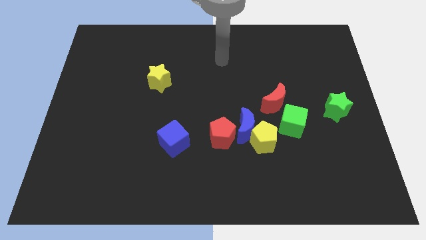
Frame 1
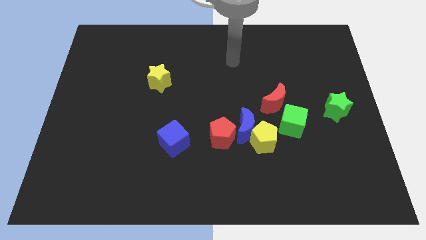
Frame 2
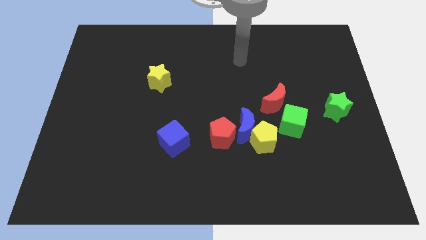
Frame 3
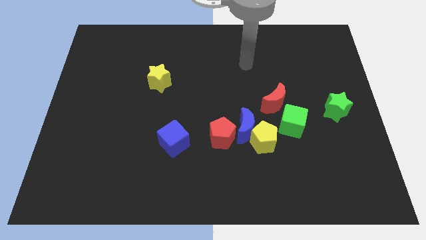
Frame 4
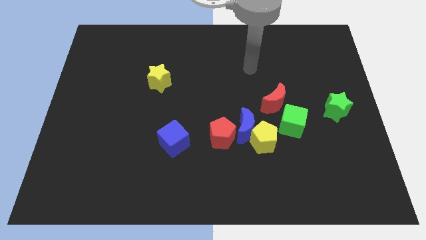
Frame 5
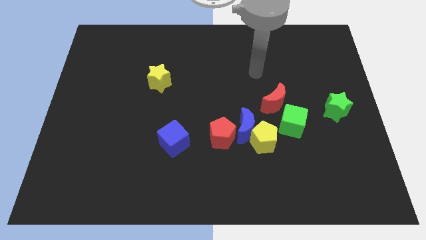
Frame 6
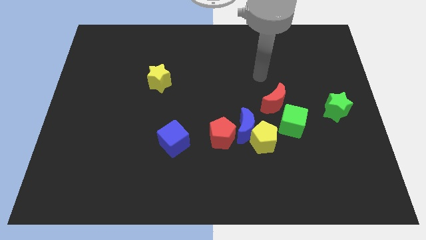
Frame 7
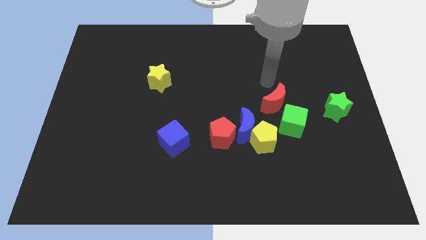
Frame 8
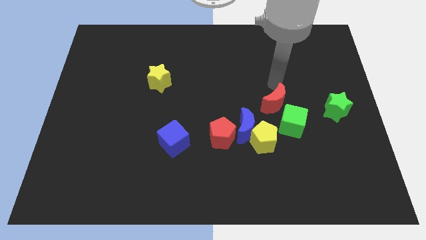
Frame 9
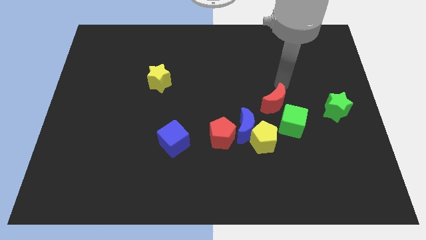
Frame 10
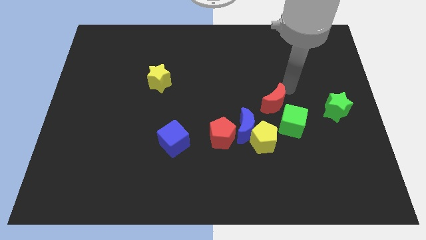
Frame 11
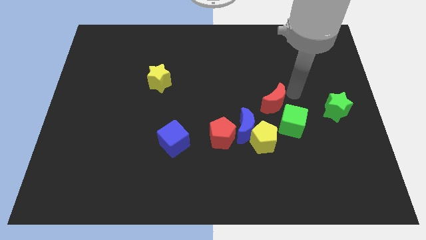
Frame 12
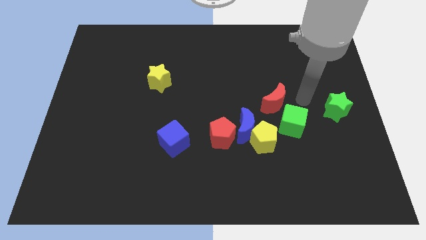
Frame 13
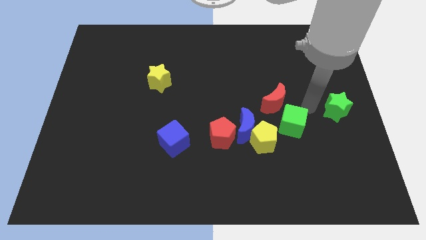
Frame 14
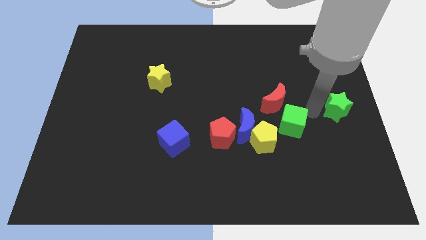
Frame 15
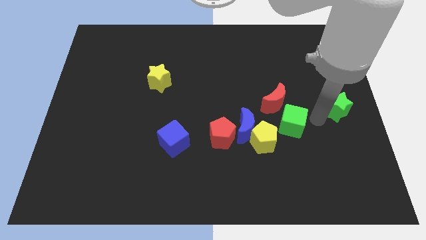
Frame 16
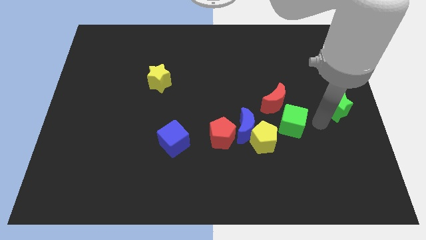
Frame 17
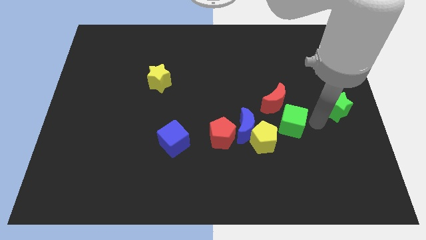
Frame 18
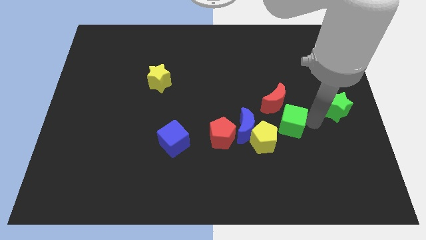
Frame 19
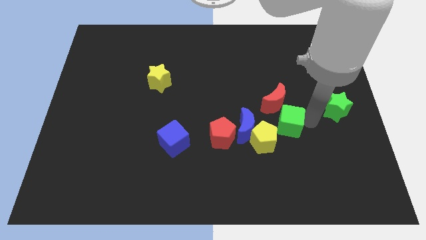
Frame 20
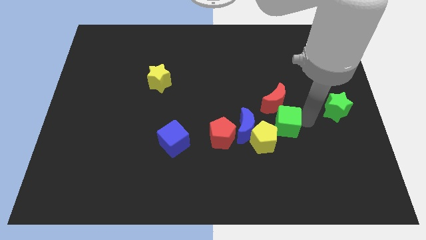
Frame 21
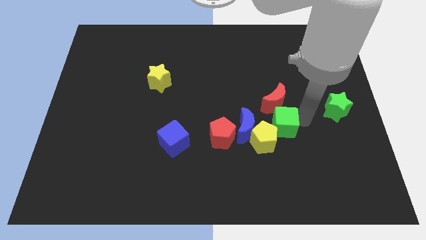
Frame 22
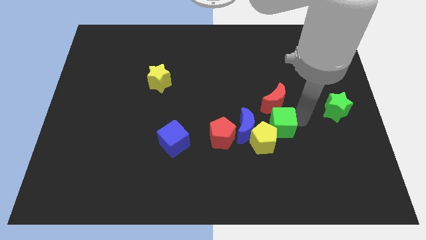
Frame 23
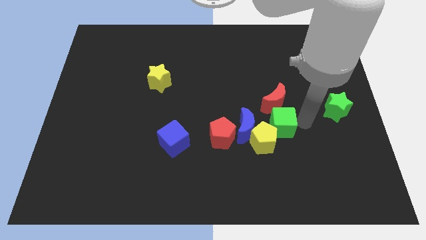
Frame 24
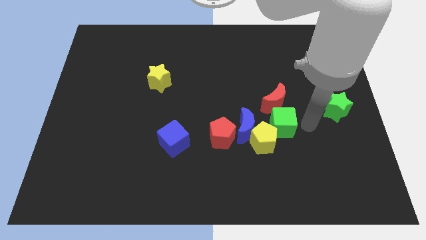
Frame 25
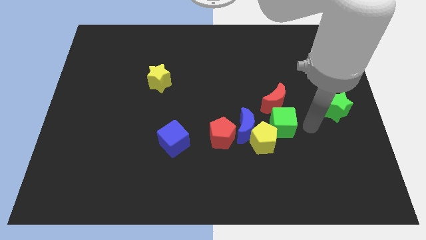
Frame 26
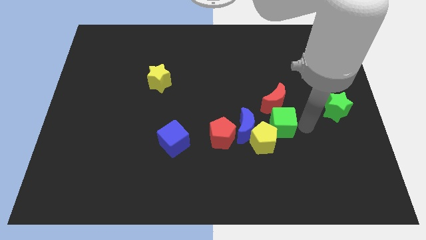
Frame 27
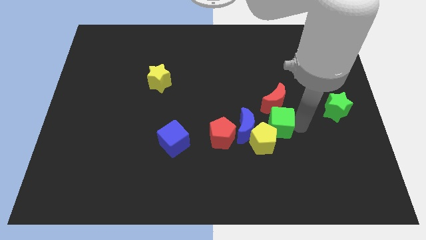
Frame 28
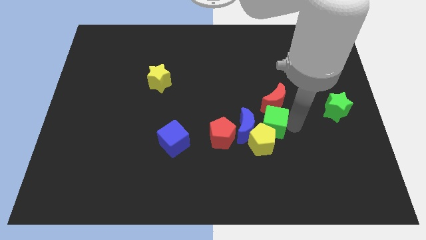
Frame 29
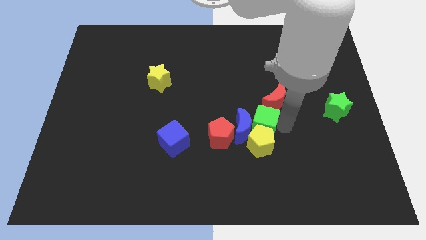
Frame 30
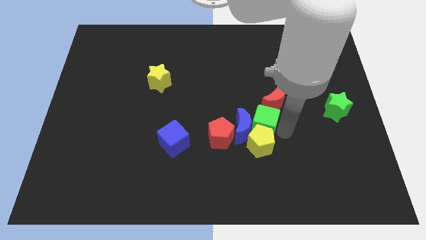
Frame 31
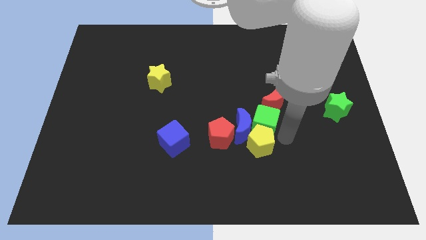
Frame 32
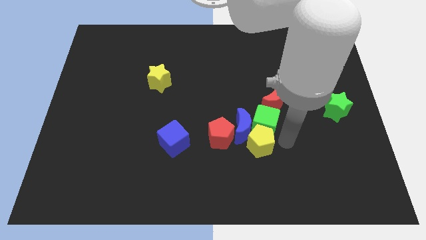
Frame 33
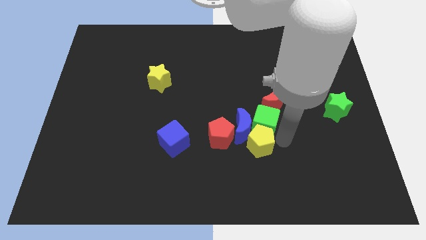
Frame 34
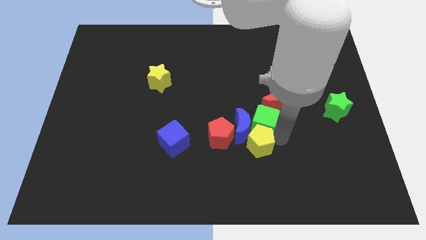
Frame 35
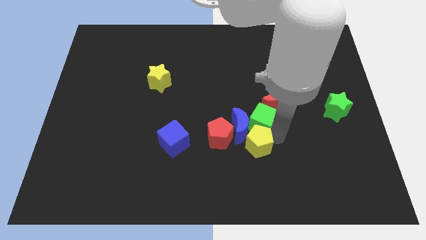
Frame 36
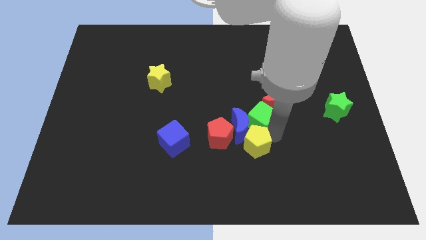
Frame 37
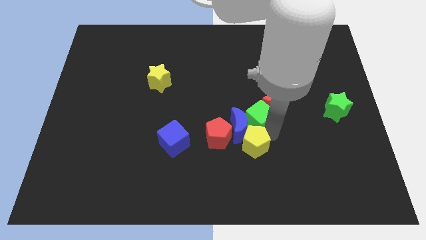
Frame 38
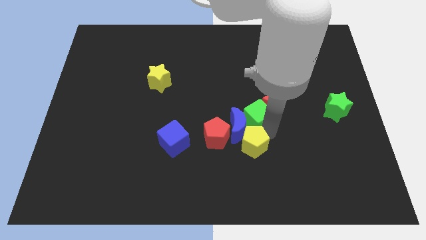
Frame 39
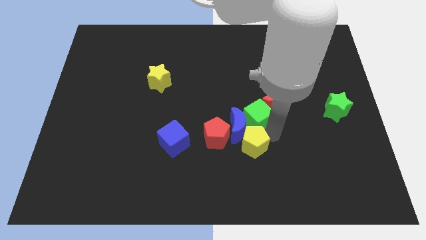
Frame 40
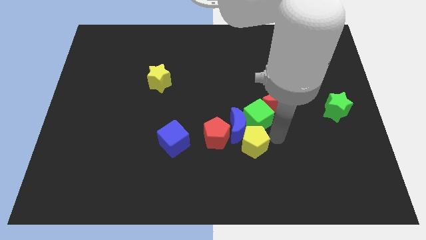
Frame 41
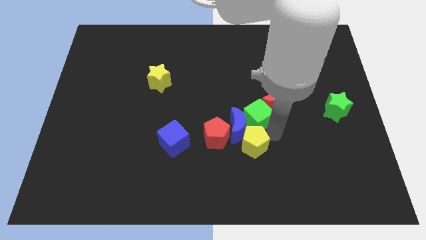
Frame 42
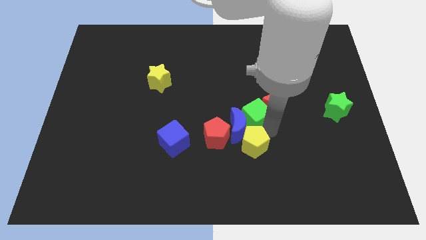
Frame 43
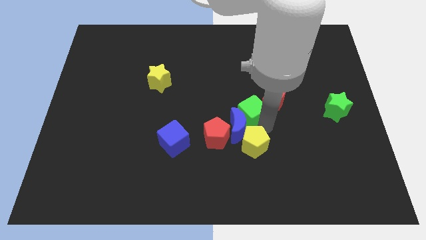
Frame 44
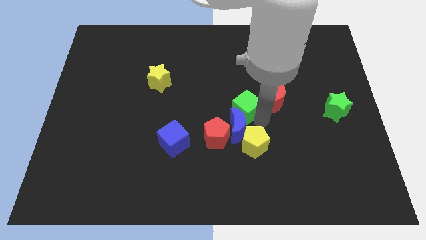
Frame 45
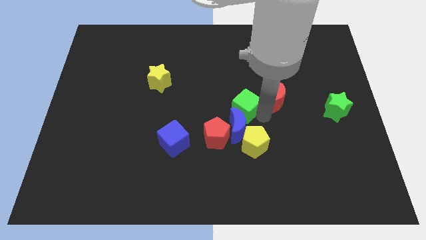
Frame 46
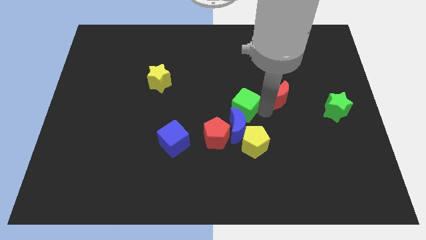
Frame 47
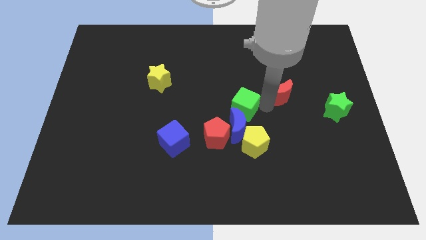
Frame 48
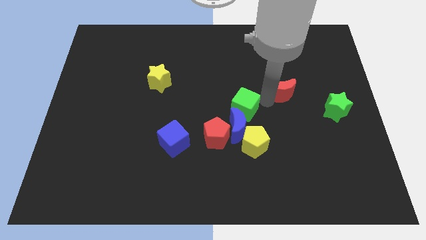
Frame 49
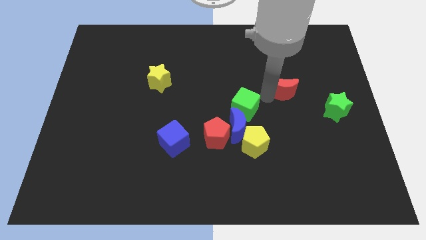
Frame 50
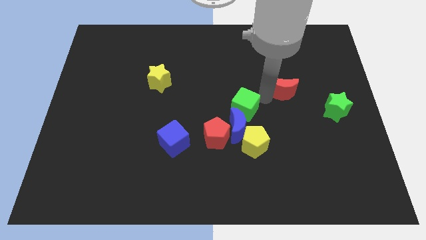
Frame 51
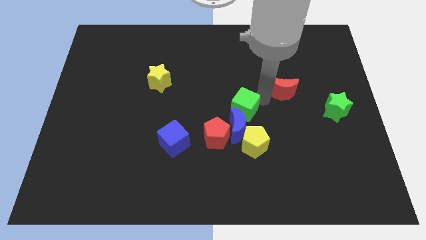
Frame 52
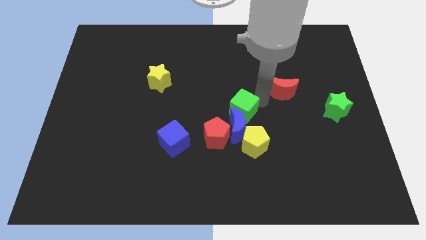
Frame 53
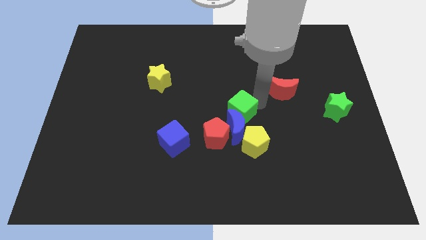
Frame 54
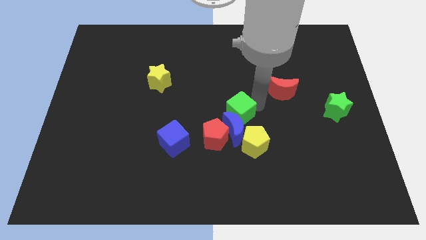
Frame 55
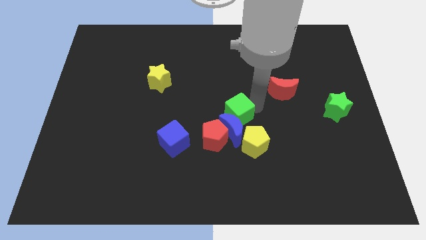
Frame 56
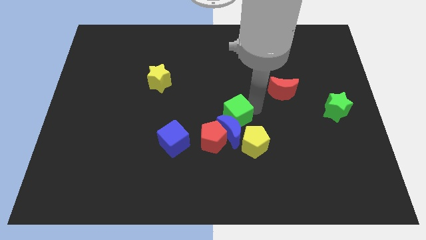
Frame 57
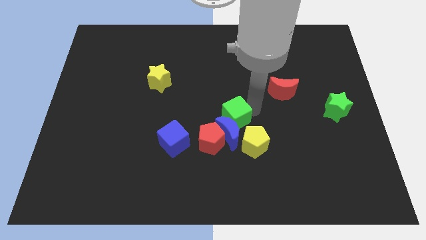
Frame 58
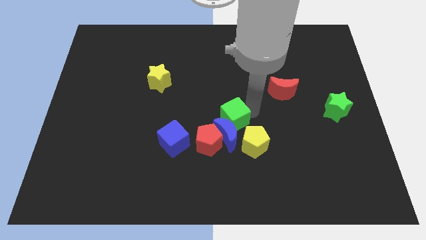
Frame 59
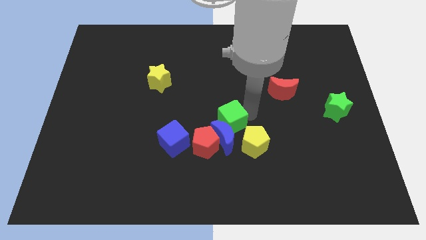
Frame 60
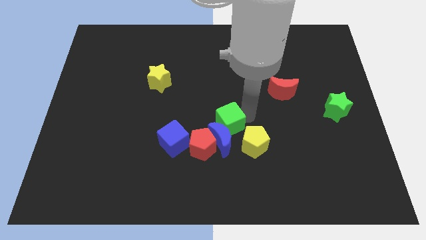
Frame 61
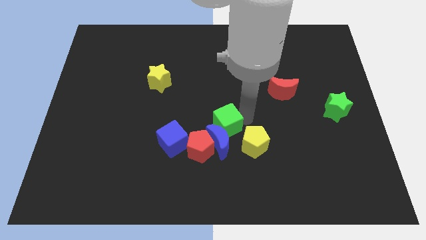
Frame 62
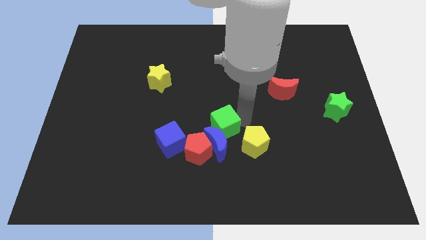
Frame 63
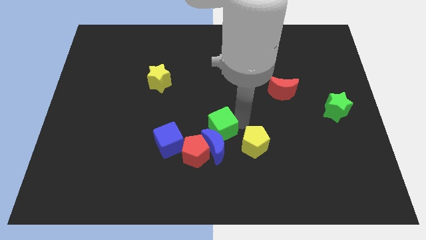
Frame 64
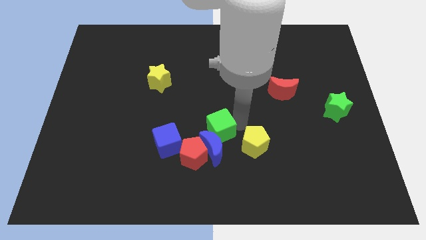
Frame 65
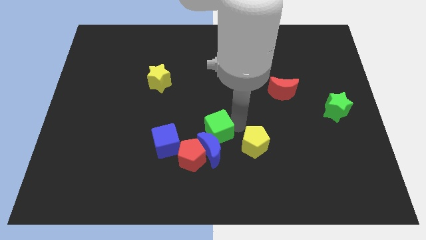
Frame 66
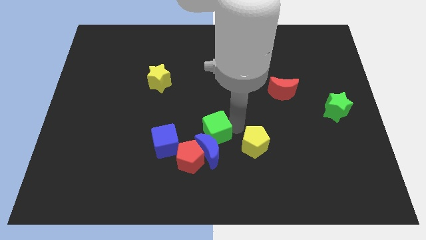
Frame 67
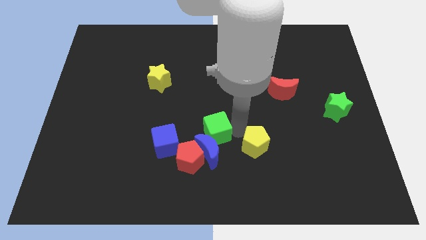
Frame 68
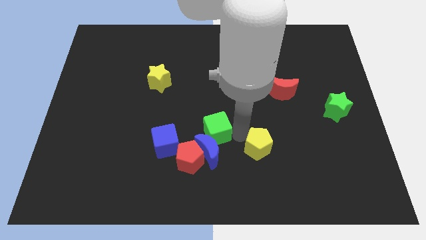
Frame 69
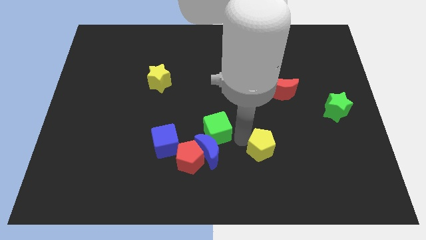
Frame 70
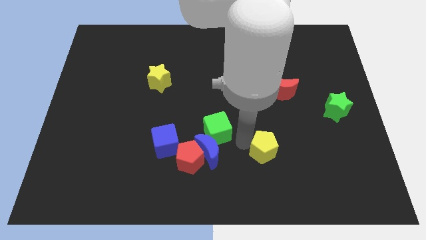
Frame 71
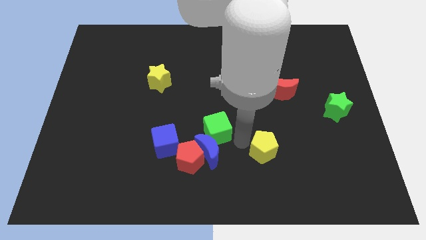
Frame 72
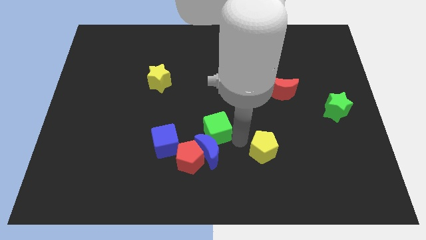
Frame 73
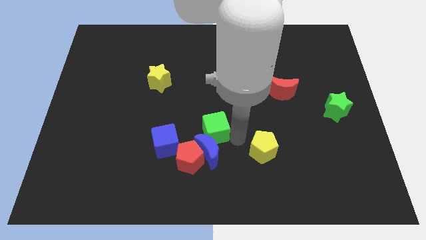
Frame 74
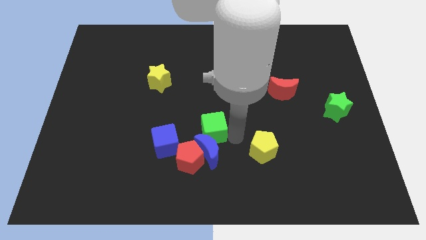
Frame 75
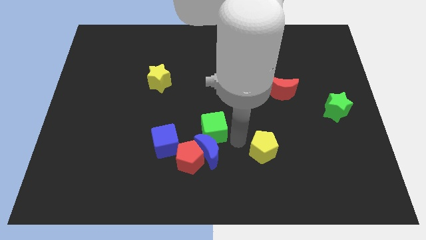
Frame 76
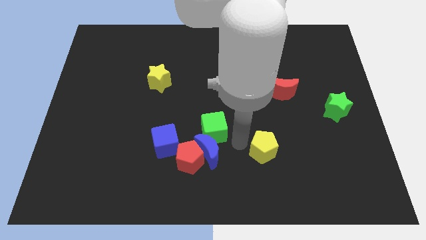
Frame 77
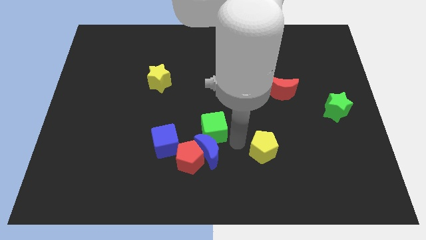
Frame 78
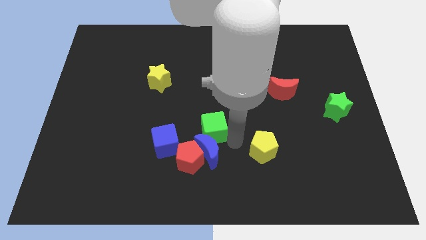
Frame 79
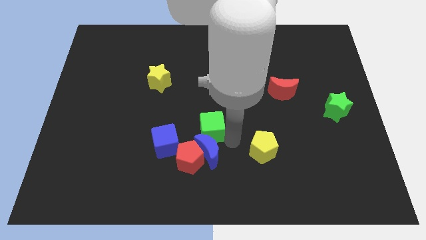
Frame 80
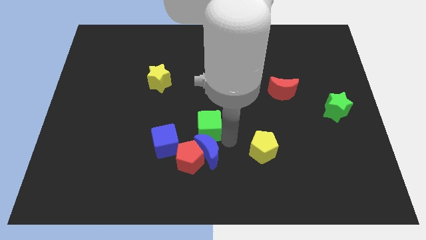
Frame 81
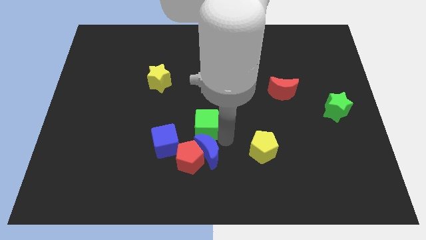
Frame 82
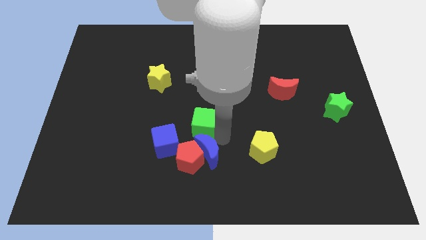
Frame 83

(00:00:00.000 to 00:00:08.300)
push the green cube to the left
